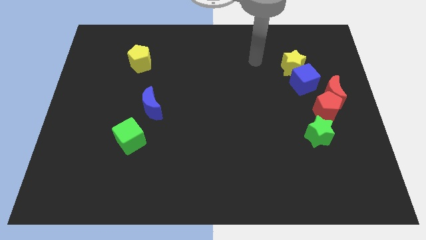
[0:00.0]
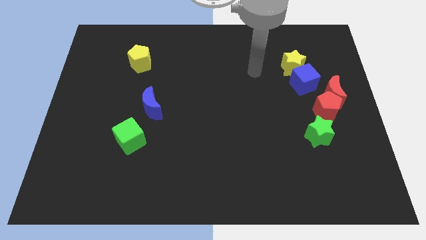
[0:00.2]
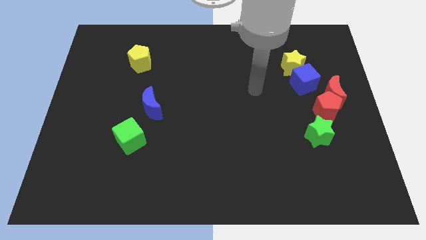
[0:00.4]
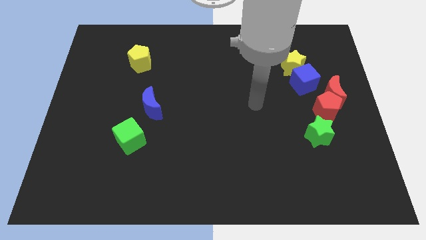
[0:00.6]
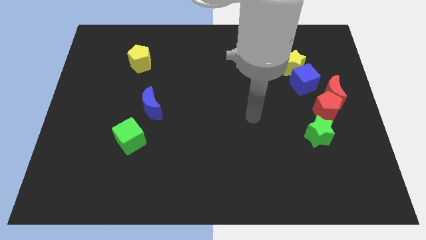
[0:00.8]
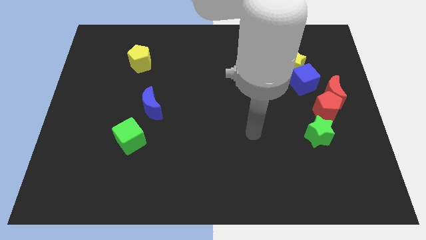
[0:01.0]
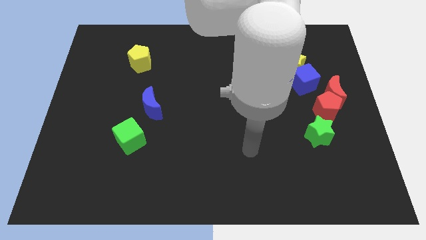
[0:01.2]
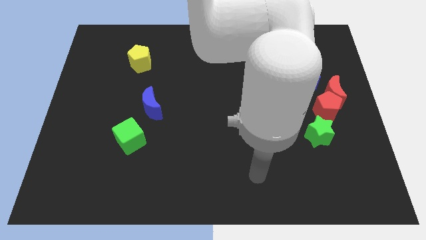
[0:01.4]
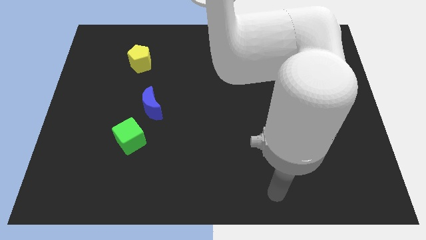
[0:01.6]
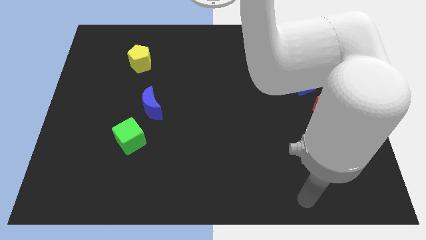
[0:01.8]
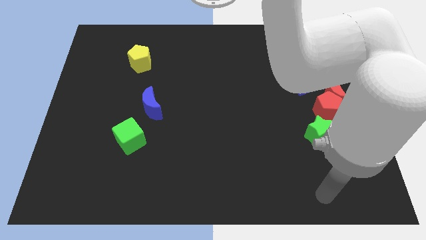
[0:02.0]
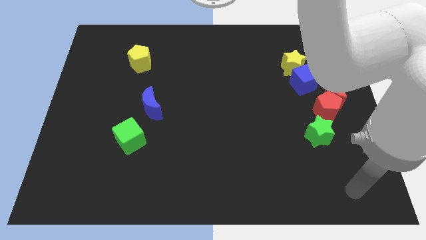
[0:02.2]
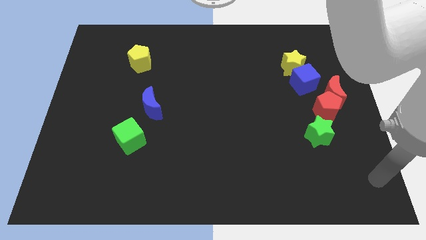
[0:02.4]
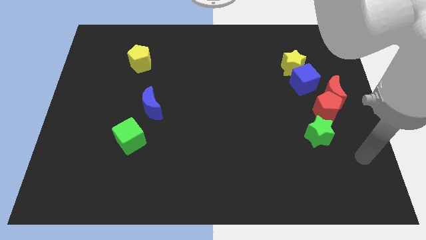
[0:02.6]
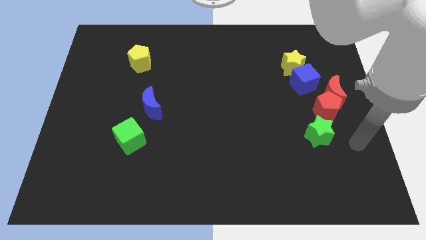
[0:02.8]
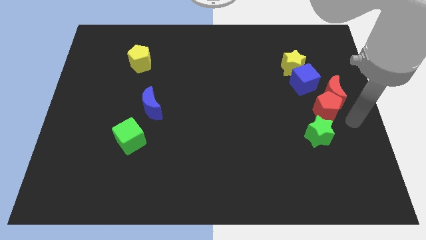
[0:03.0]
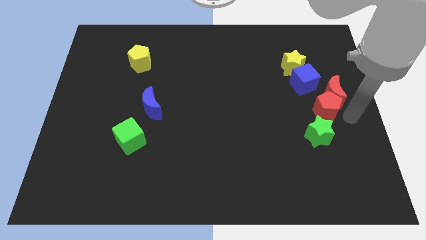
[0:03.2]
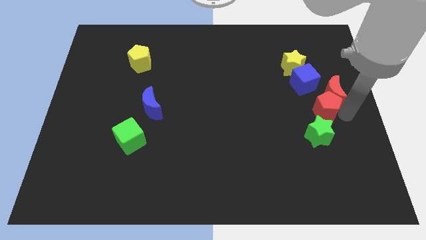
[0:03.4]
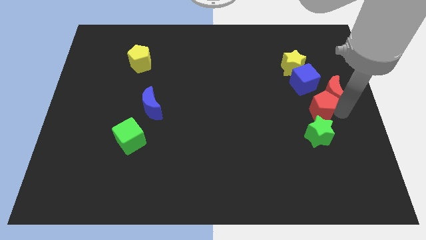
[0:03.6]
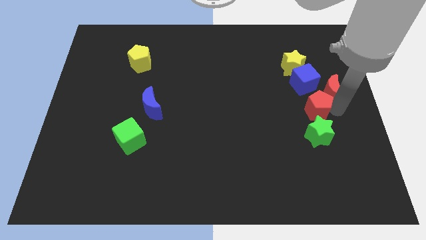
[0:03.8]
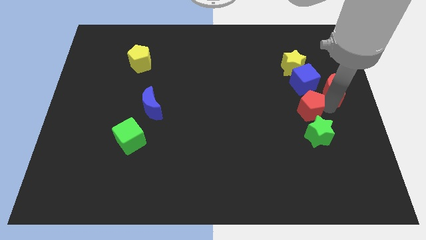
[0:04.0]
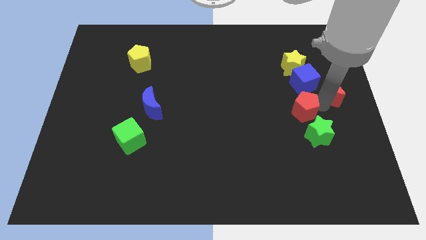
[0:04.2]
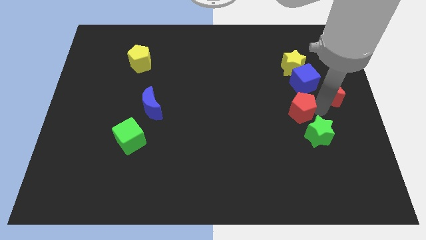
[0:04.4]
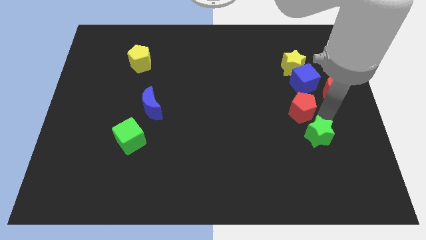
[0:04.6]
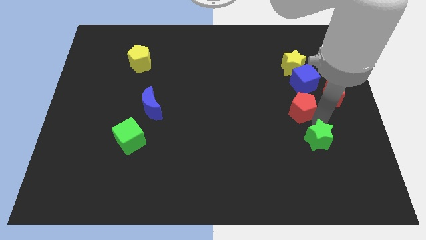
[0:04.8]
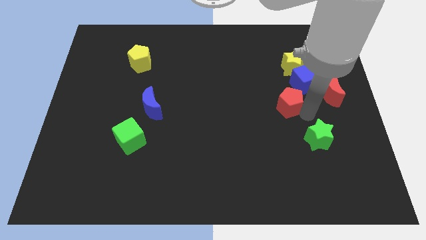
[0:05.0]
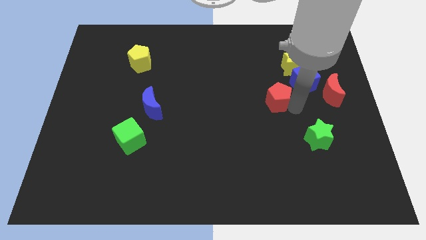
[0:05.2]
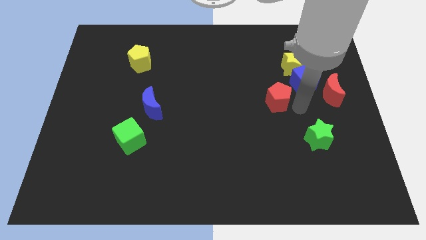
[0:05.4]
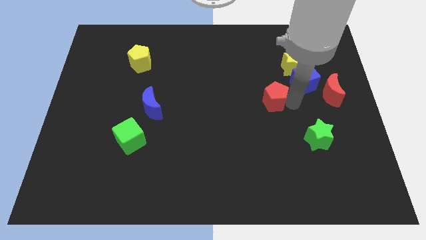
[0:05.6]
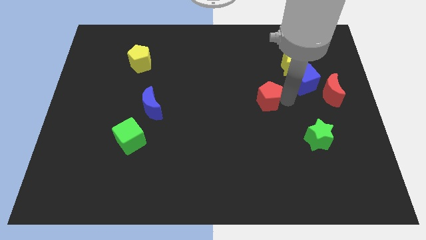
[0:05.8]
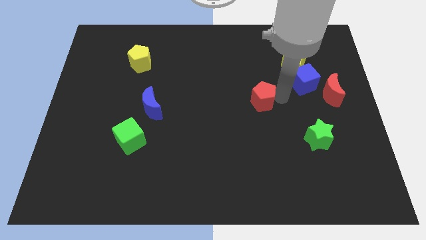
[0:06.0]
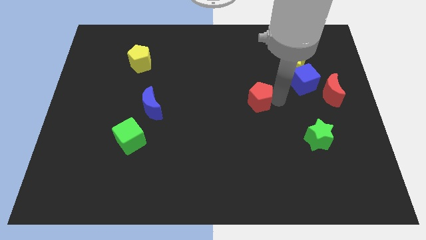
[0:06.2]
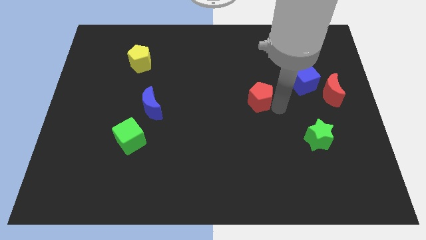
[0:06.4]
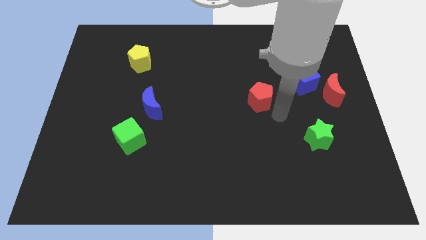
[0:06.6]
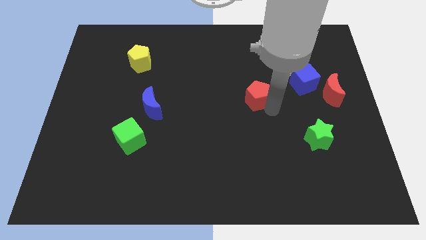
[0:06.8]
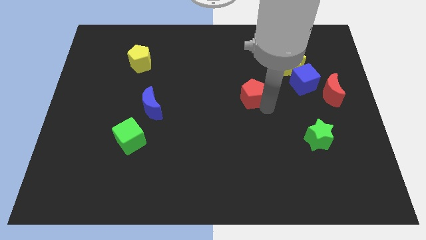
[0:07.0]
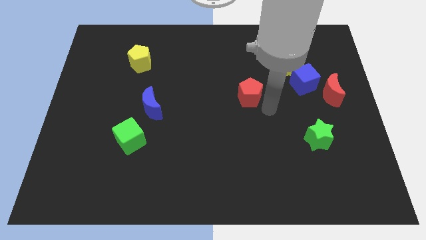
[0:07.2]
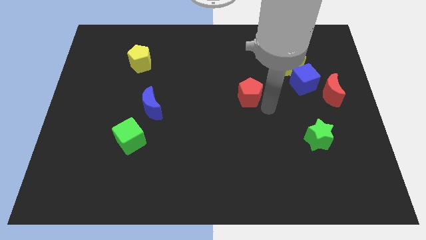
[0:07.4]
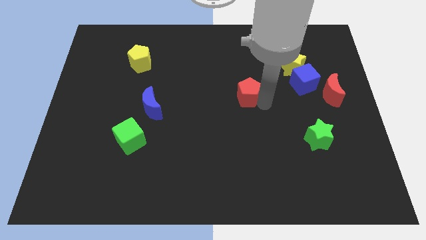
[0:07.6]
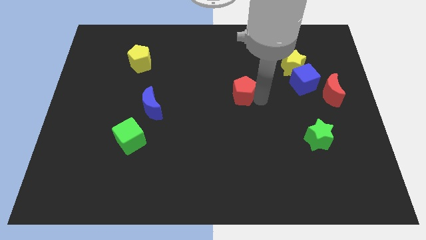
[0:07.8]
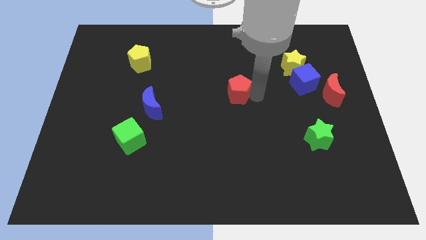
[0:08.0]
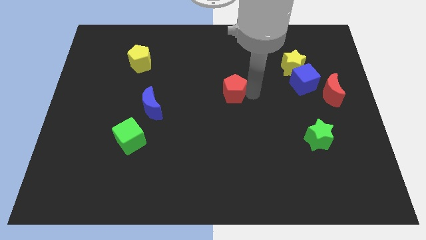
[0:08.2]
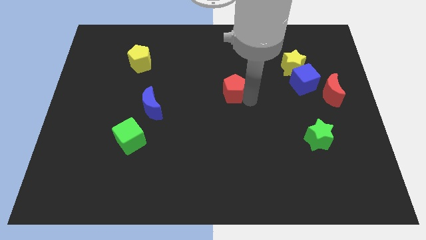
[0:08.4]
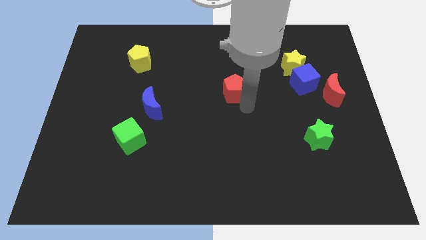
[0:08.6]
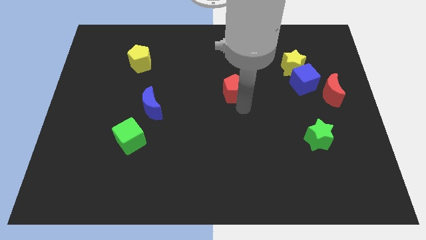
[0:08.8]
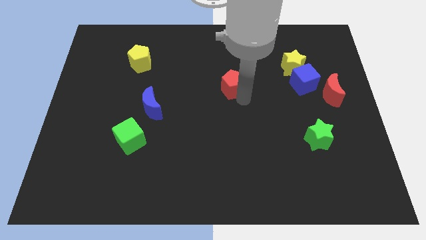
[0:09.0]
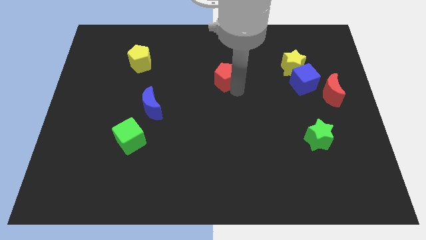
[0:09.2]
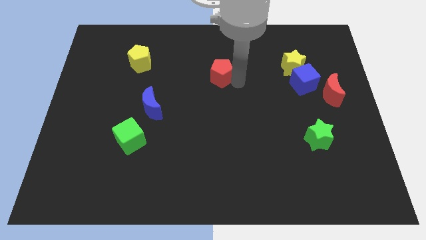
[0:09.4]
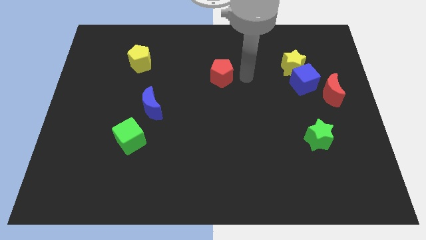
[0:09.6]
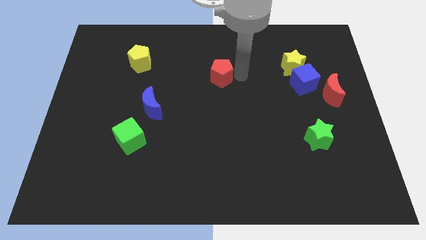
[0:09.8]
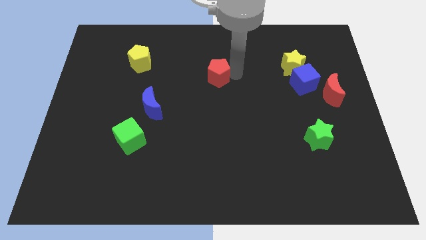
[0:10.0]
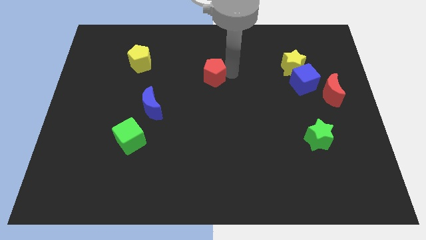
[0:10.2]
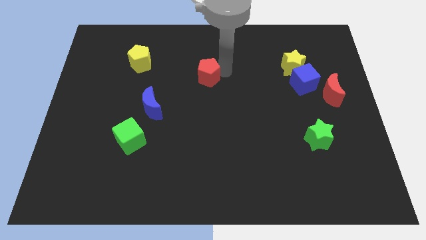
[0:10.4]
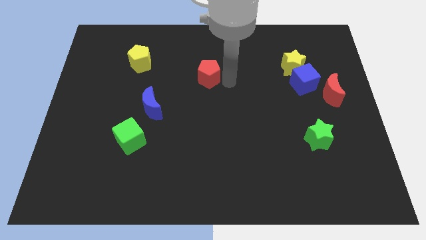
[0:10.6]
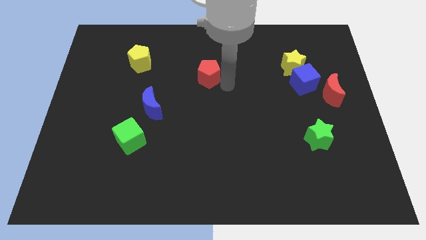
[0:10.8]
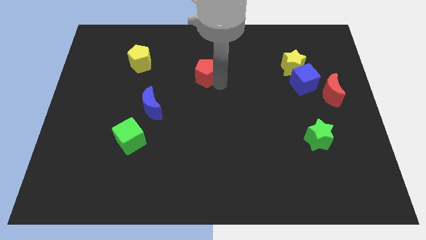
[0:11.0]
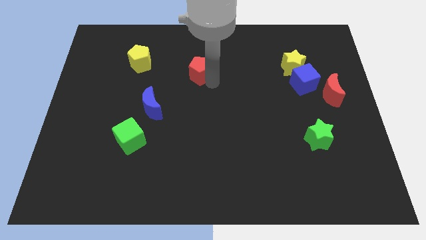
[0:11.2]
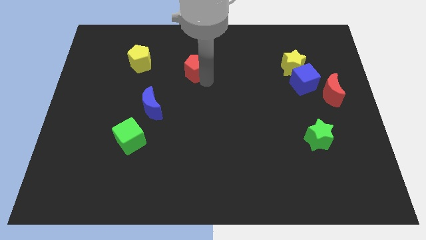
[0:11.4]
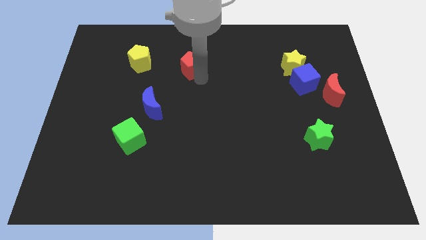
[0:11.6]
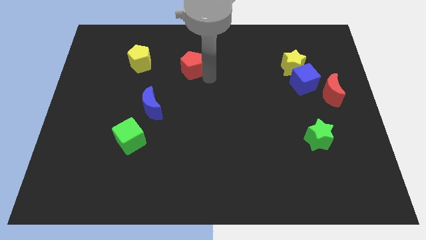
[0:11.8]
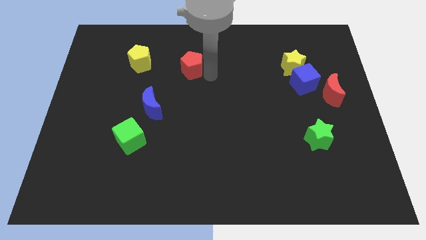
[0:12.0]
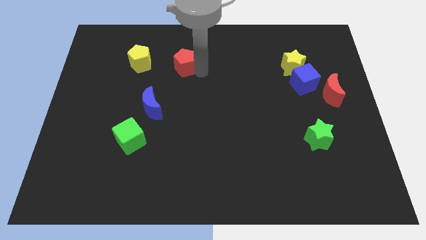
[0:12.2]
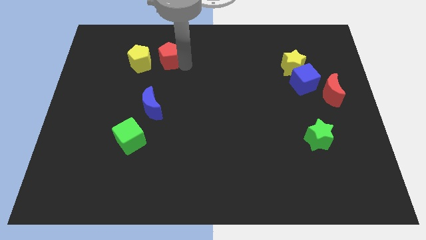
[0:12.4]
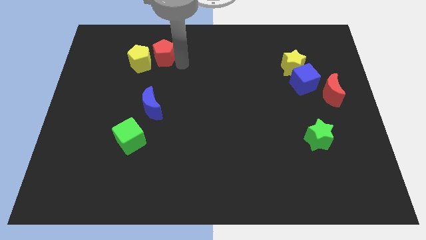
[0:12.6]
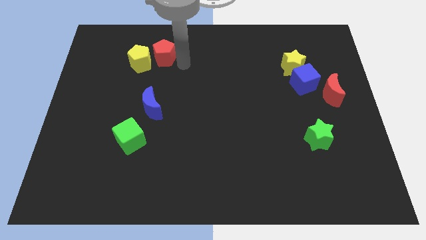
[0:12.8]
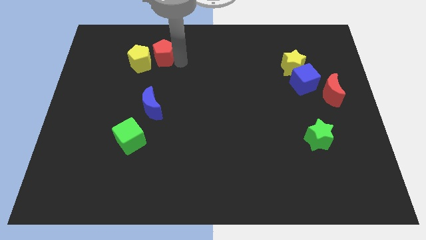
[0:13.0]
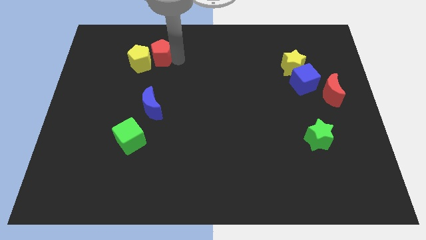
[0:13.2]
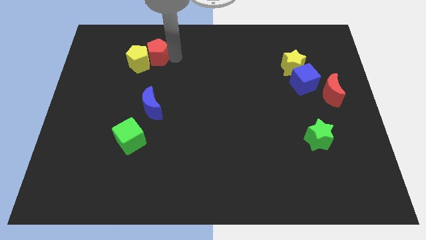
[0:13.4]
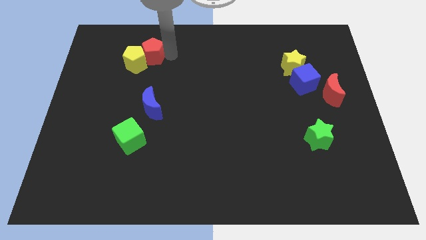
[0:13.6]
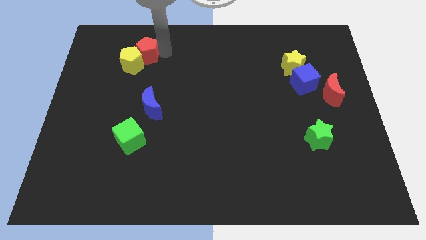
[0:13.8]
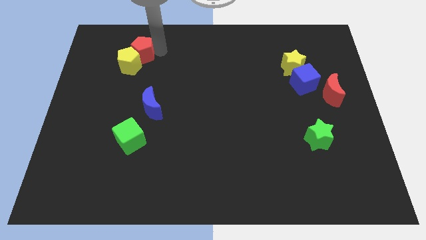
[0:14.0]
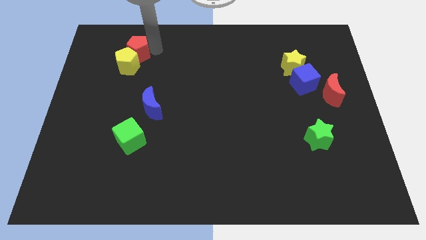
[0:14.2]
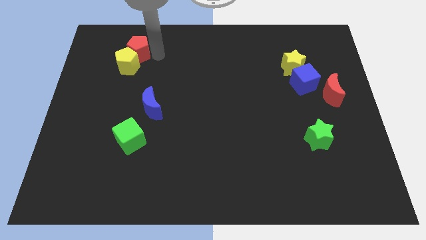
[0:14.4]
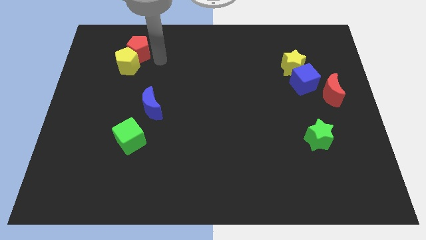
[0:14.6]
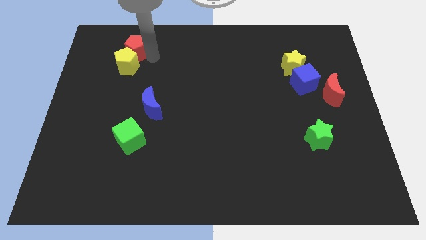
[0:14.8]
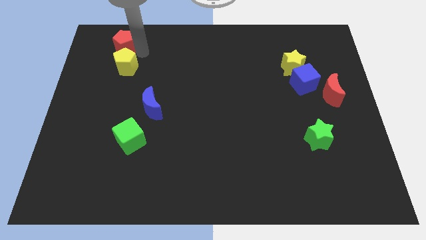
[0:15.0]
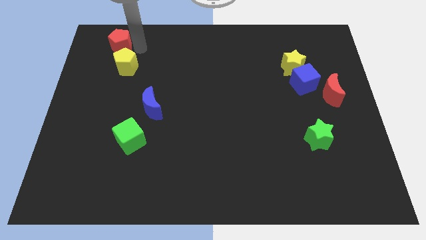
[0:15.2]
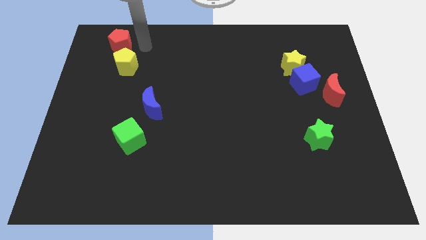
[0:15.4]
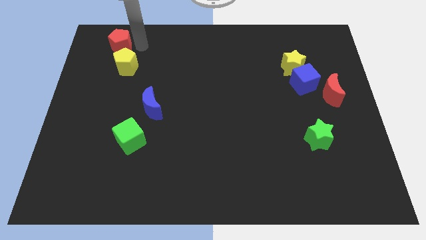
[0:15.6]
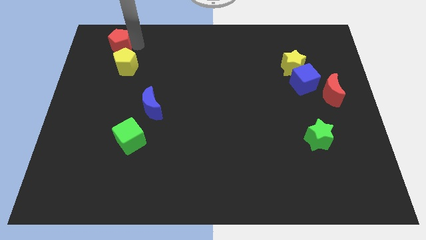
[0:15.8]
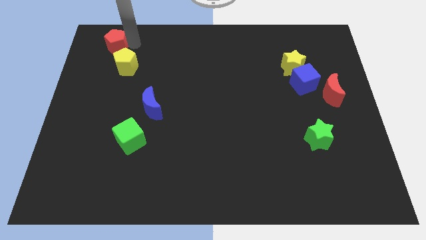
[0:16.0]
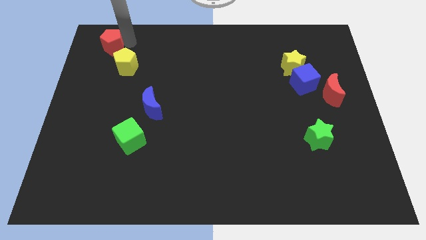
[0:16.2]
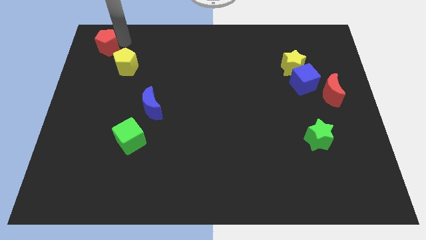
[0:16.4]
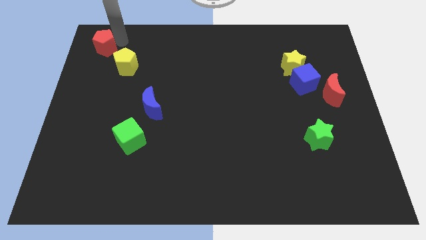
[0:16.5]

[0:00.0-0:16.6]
put the red pentagon to the top left
